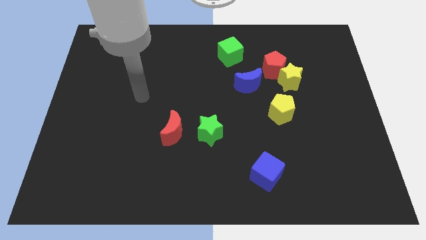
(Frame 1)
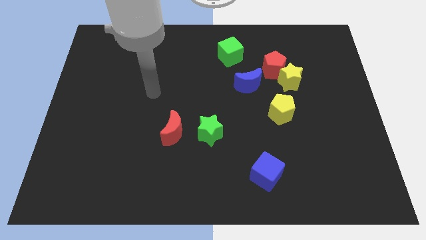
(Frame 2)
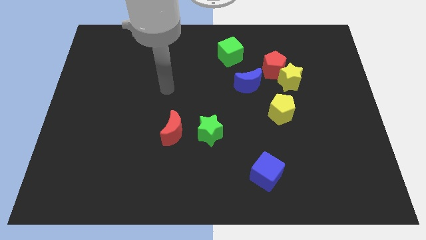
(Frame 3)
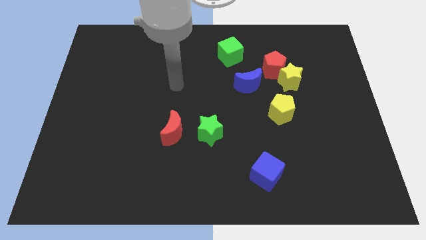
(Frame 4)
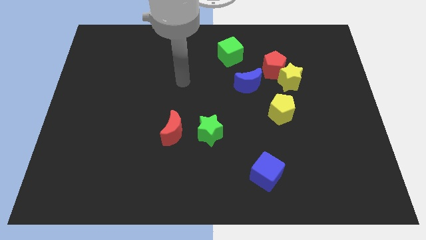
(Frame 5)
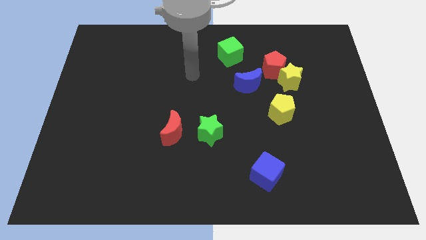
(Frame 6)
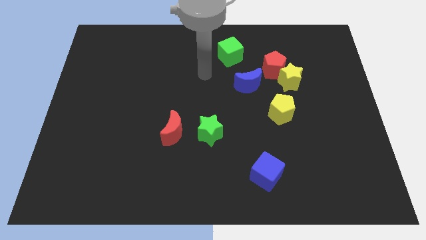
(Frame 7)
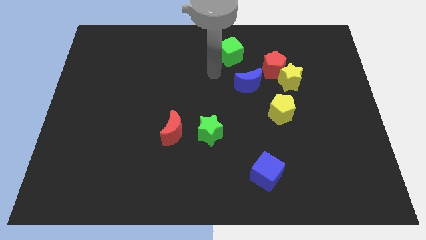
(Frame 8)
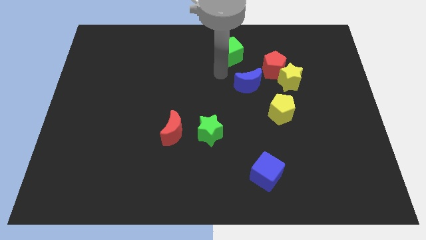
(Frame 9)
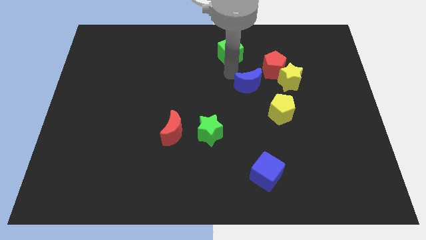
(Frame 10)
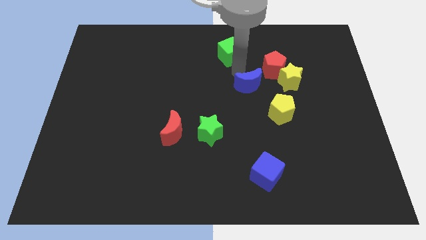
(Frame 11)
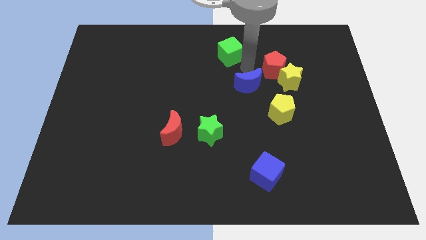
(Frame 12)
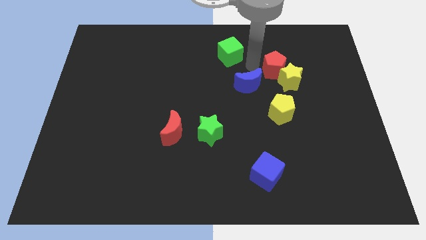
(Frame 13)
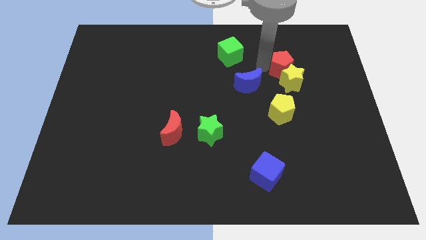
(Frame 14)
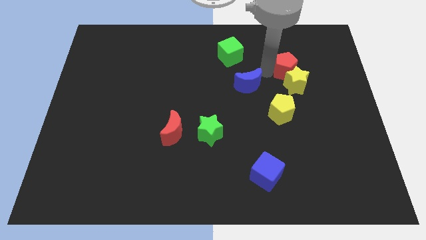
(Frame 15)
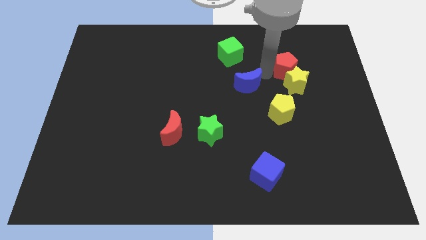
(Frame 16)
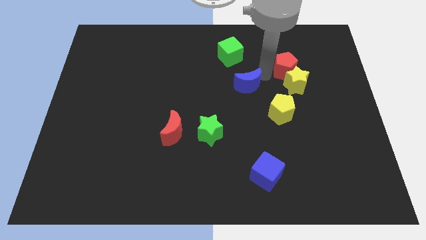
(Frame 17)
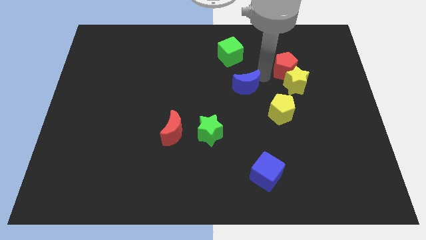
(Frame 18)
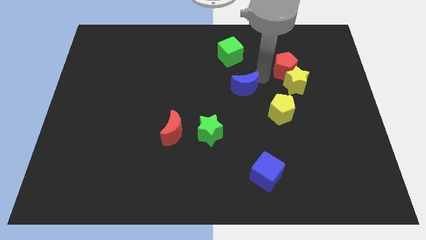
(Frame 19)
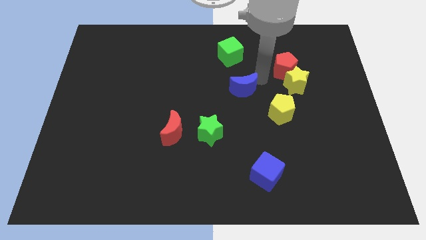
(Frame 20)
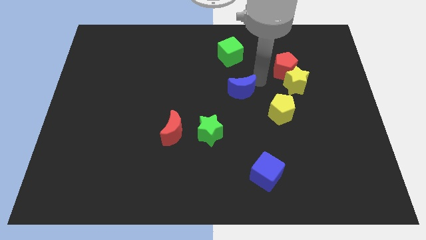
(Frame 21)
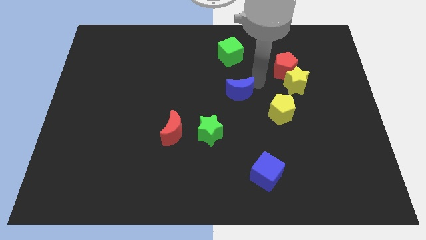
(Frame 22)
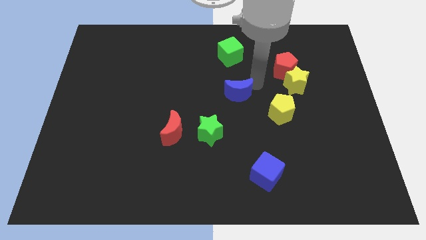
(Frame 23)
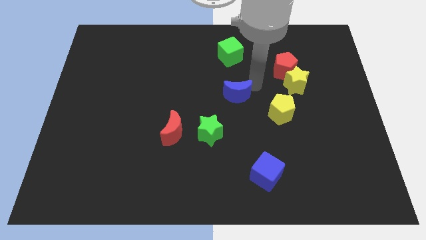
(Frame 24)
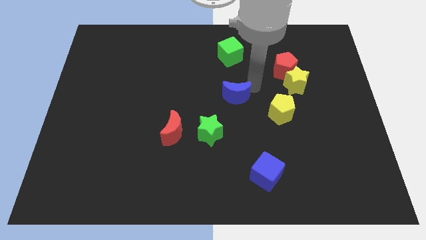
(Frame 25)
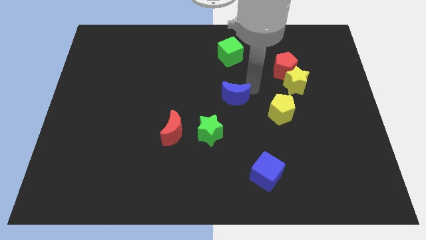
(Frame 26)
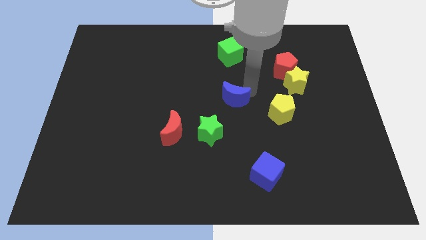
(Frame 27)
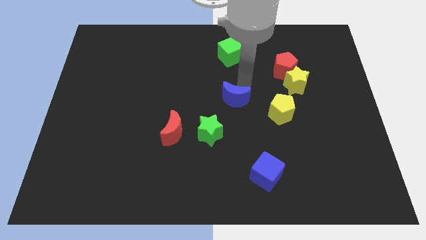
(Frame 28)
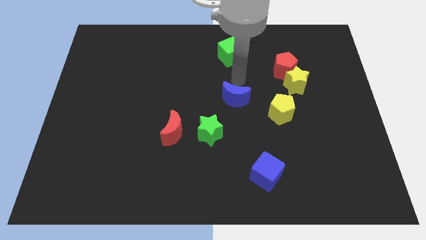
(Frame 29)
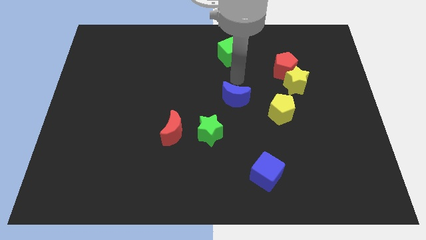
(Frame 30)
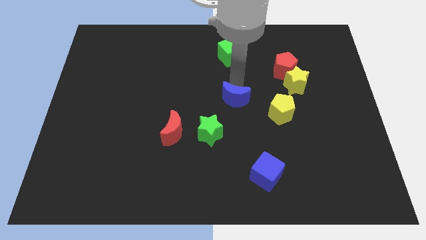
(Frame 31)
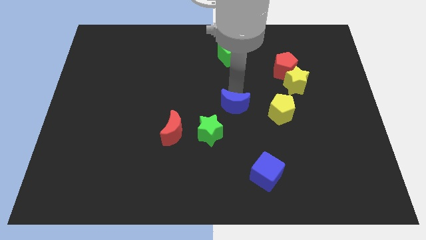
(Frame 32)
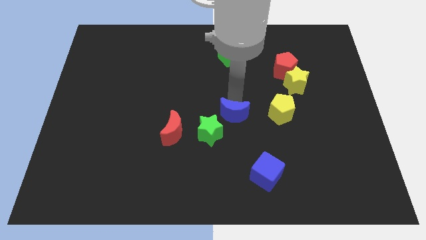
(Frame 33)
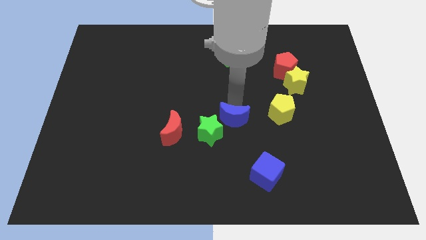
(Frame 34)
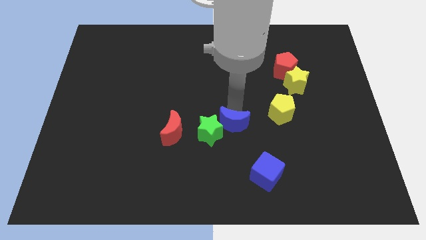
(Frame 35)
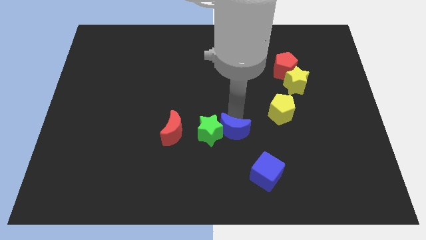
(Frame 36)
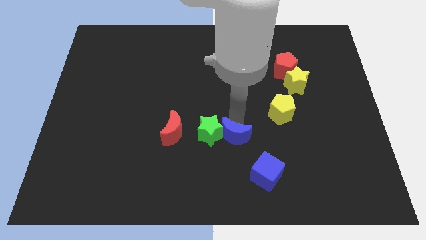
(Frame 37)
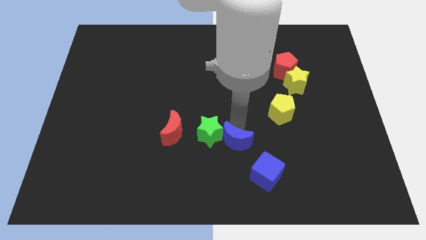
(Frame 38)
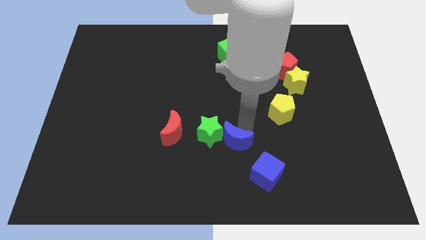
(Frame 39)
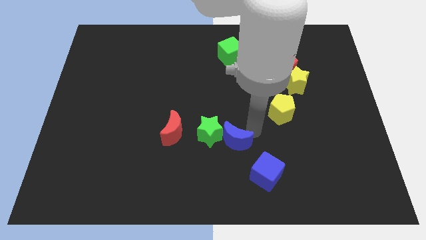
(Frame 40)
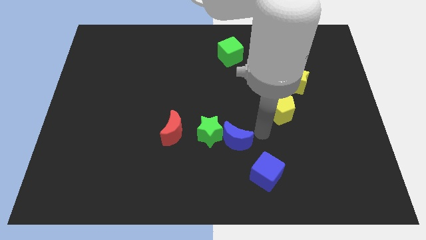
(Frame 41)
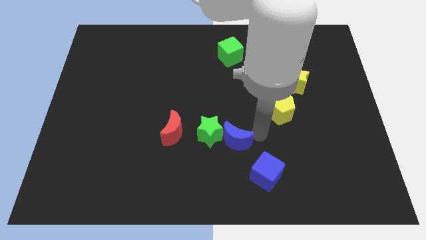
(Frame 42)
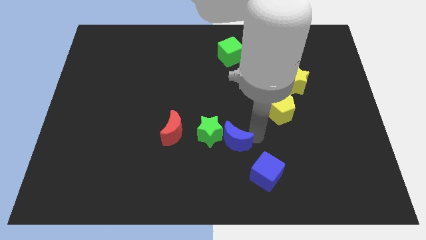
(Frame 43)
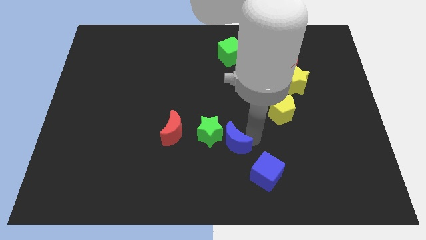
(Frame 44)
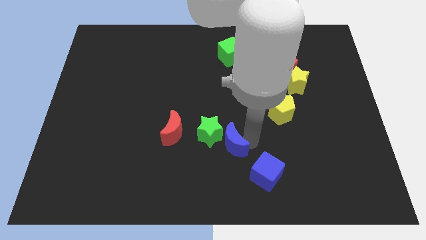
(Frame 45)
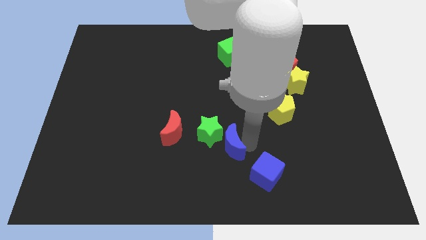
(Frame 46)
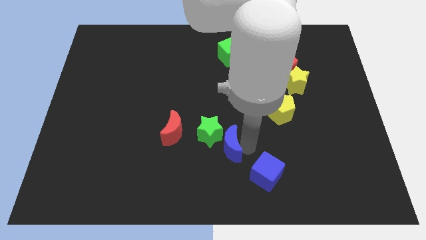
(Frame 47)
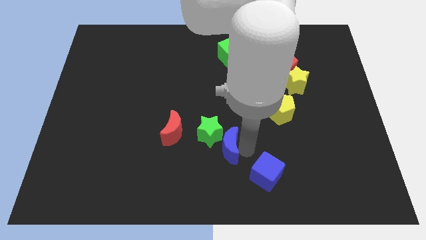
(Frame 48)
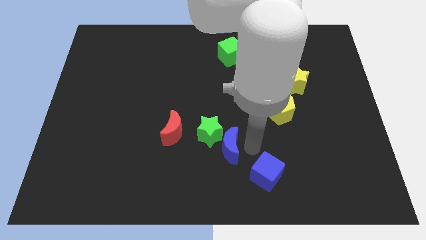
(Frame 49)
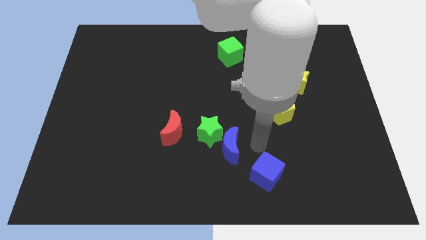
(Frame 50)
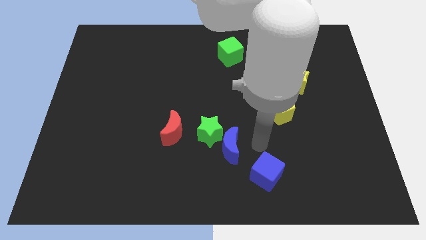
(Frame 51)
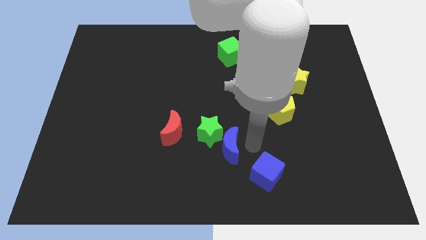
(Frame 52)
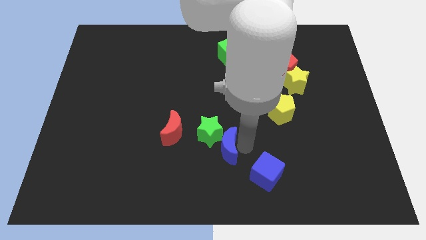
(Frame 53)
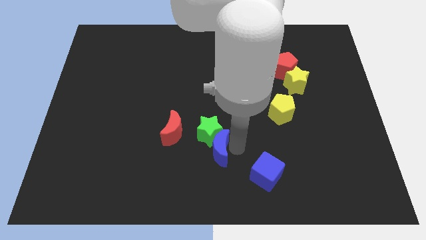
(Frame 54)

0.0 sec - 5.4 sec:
put the blue moon to the bottom right of the red moon

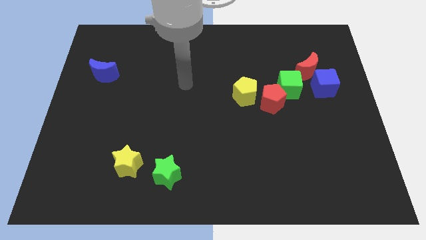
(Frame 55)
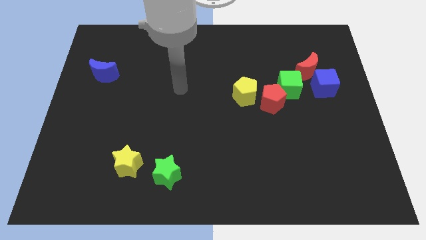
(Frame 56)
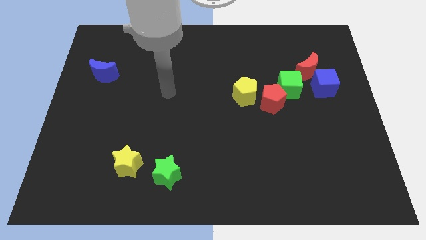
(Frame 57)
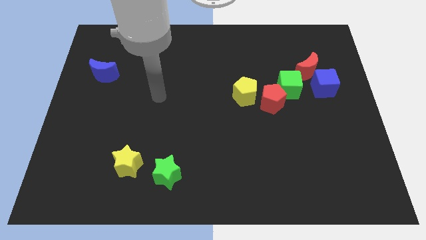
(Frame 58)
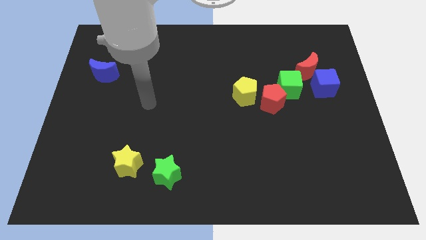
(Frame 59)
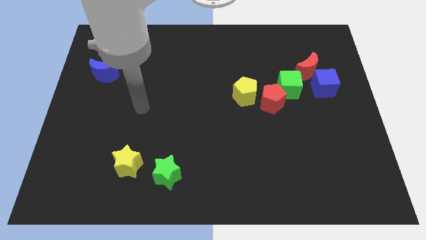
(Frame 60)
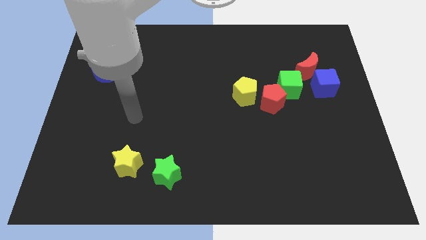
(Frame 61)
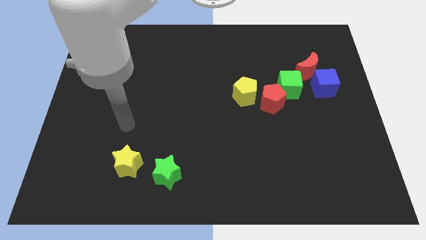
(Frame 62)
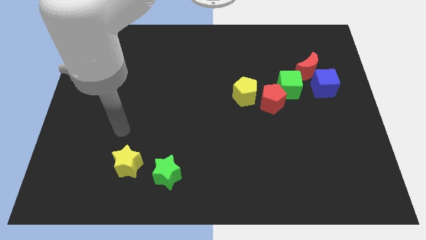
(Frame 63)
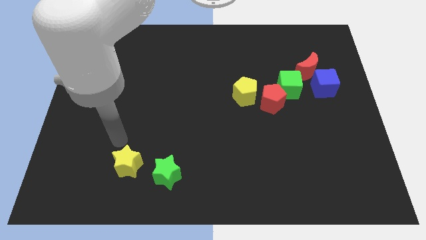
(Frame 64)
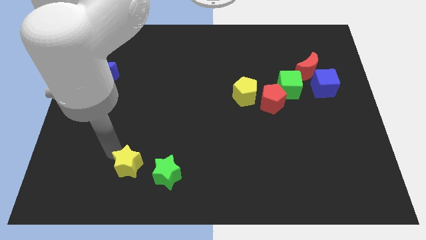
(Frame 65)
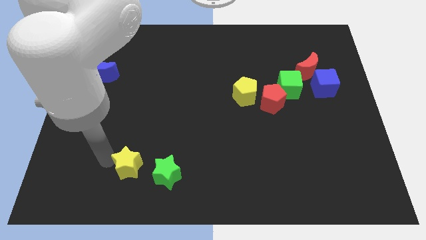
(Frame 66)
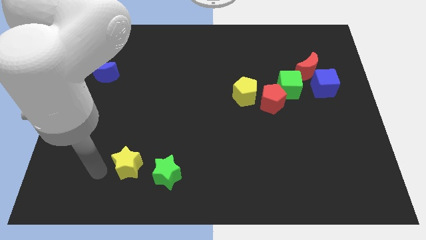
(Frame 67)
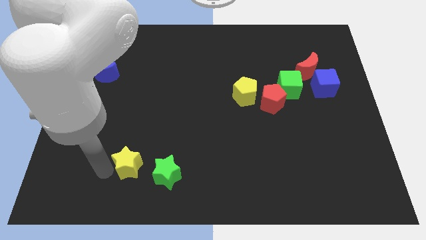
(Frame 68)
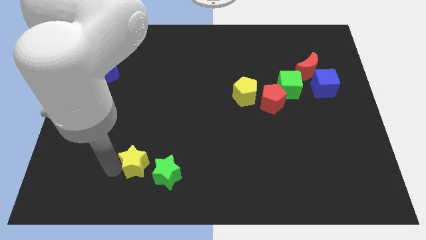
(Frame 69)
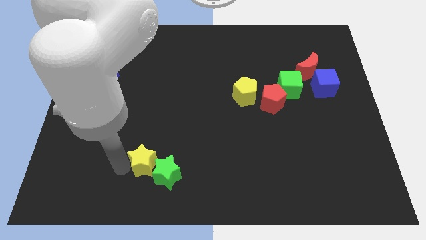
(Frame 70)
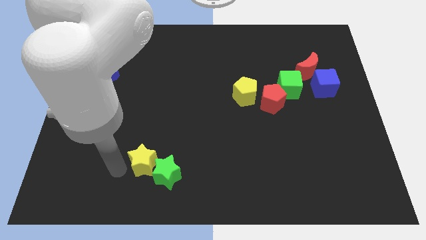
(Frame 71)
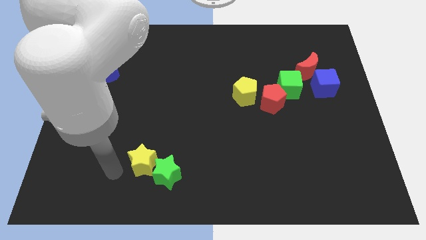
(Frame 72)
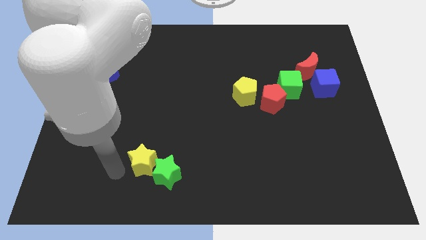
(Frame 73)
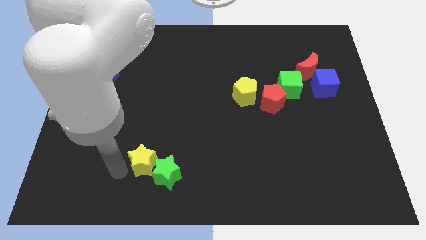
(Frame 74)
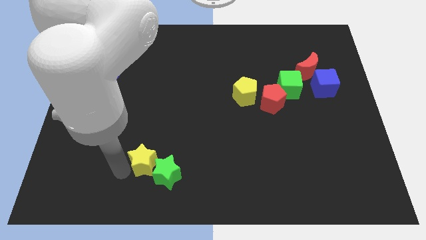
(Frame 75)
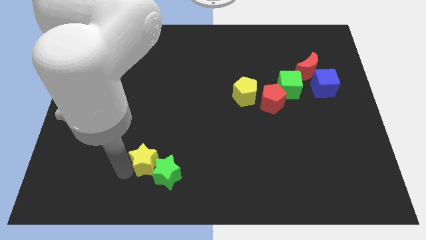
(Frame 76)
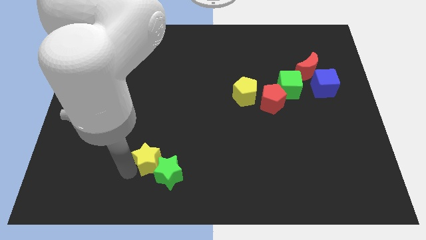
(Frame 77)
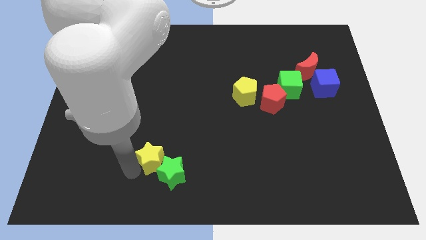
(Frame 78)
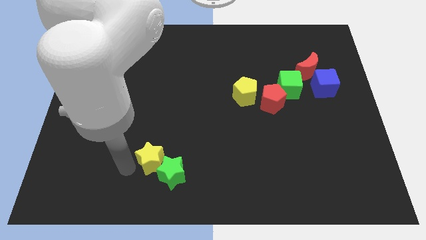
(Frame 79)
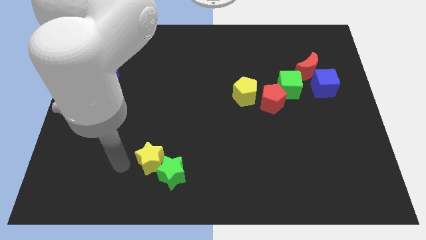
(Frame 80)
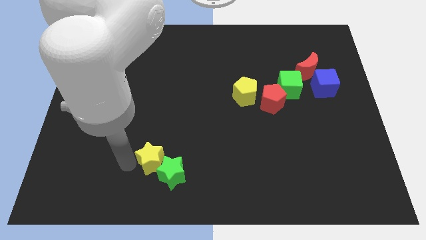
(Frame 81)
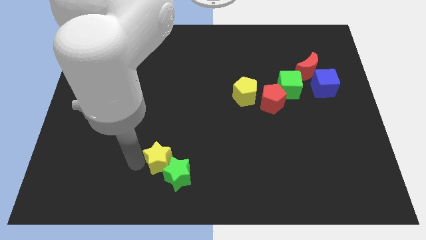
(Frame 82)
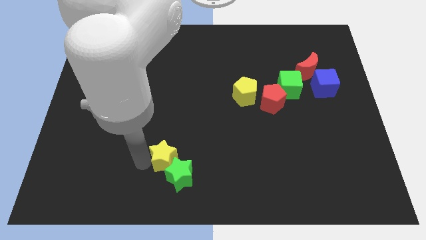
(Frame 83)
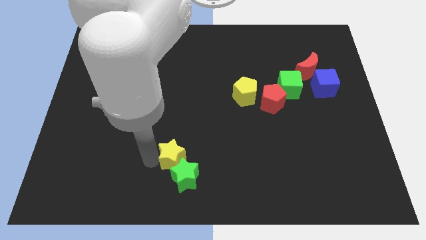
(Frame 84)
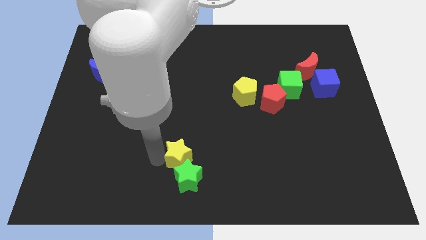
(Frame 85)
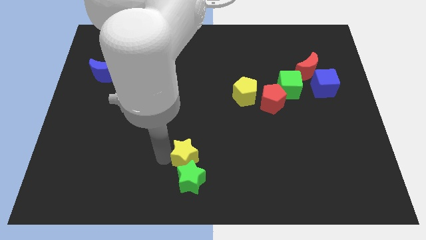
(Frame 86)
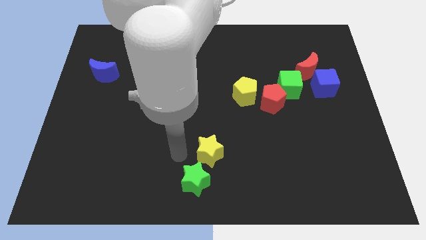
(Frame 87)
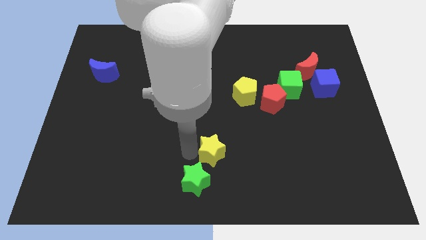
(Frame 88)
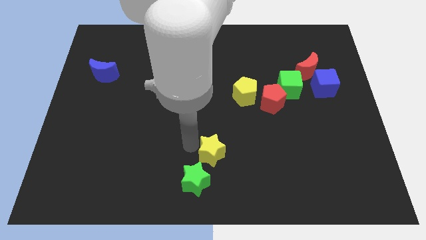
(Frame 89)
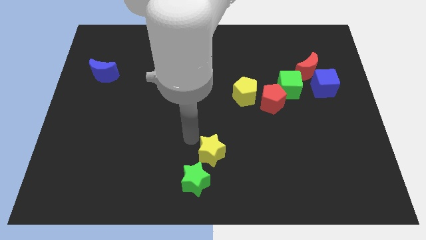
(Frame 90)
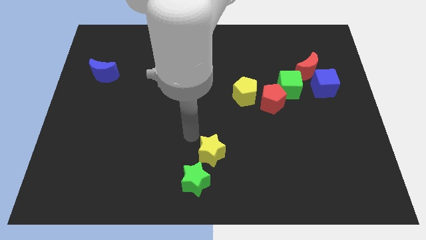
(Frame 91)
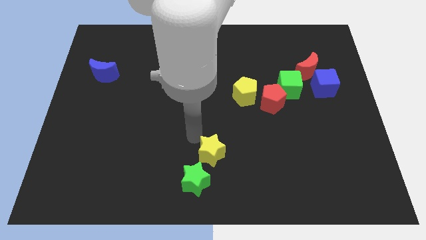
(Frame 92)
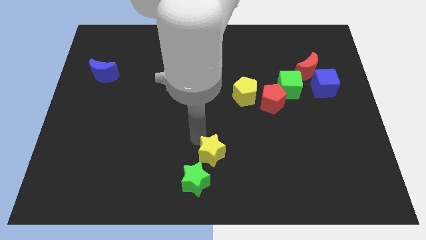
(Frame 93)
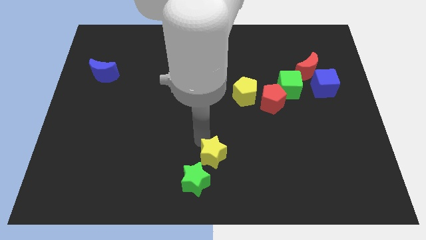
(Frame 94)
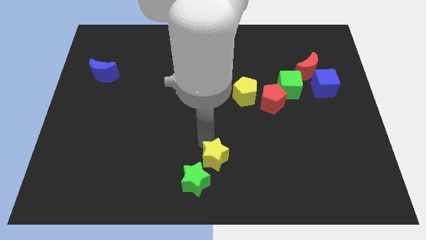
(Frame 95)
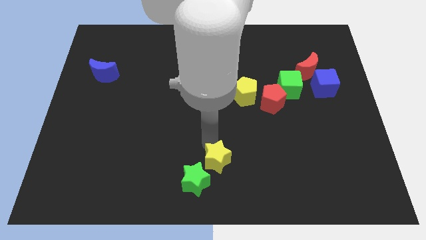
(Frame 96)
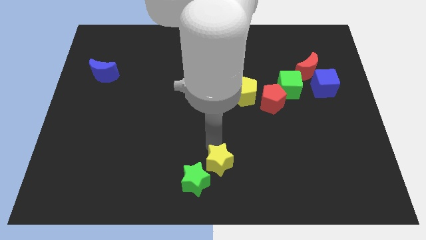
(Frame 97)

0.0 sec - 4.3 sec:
push the yellow star to the right side of the green star
